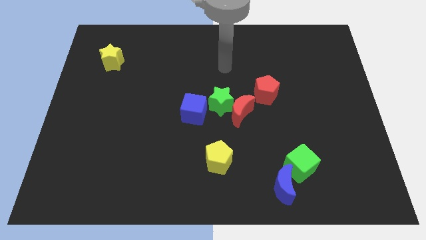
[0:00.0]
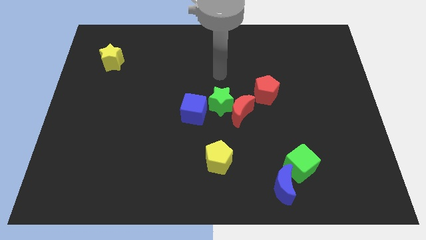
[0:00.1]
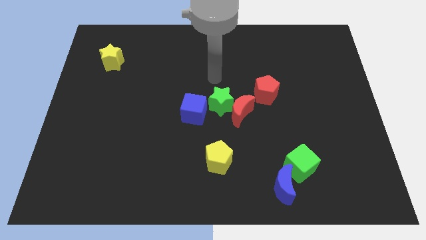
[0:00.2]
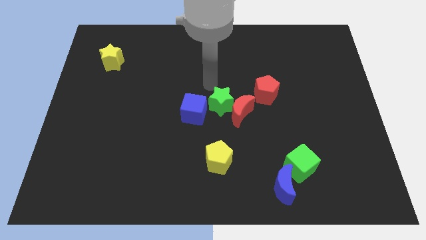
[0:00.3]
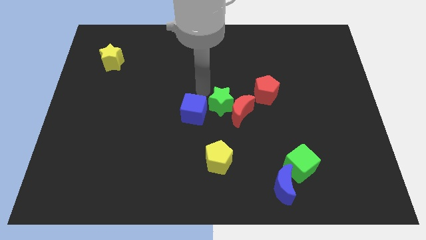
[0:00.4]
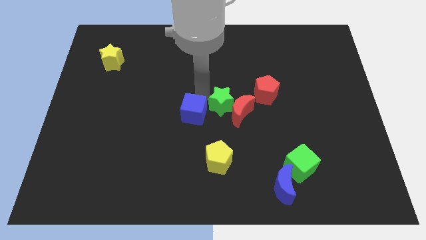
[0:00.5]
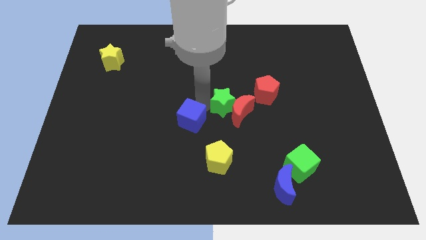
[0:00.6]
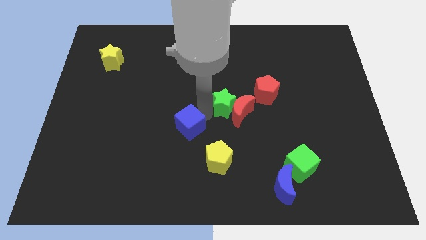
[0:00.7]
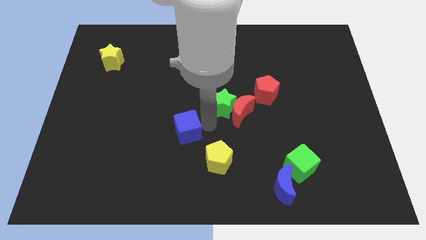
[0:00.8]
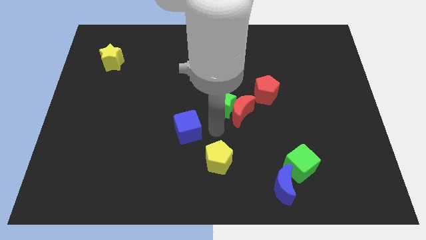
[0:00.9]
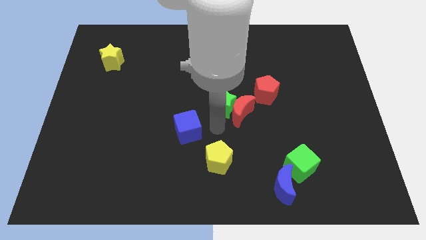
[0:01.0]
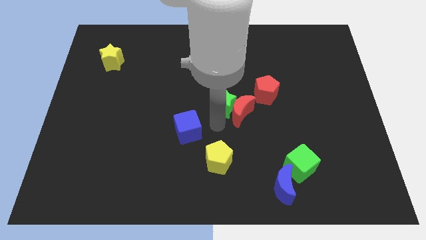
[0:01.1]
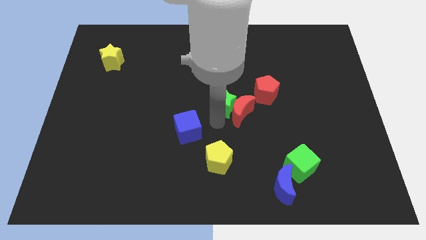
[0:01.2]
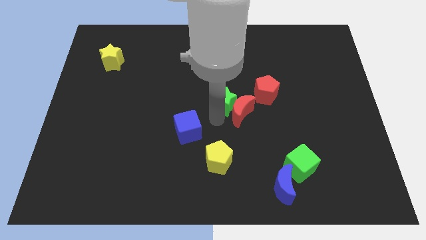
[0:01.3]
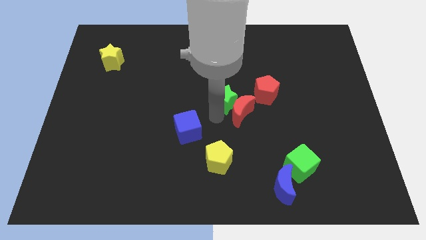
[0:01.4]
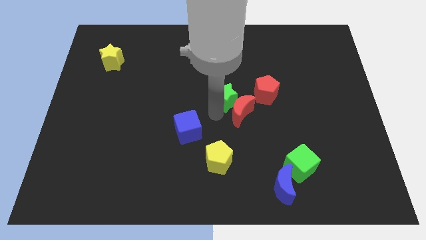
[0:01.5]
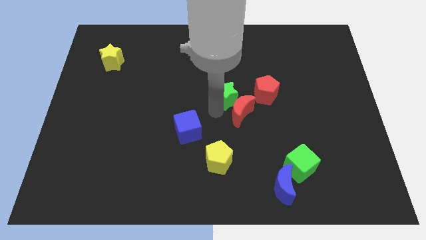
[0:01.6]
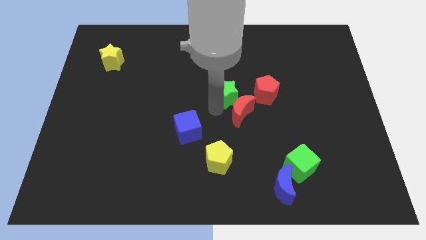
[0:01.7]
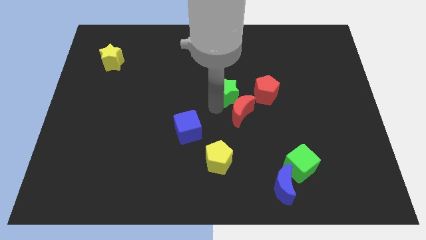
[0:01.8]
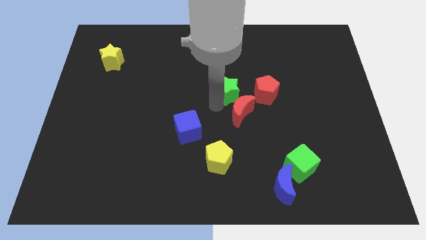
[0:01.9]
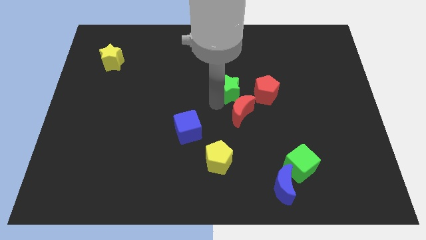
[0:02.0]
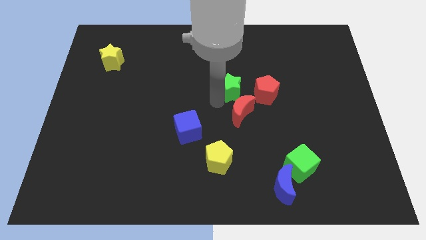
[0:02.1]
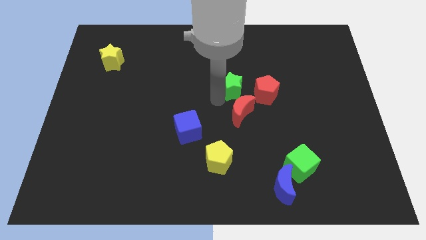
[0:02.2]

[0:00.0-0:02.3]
pull the green star apart from the red moon and blue cube

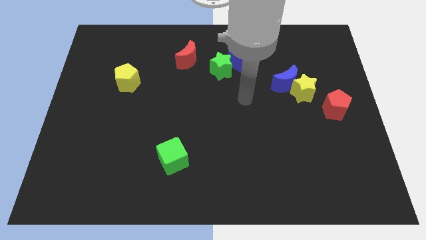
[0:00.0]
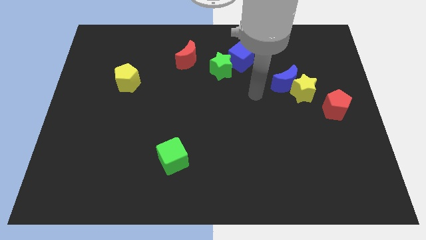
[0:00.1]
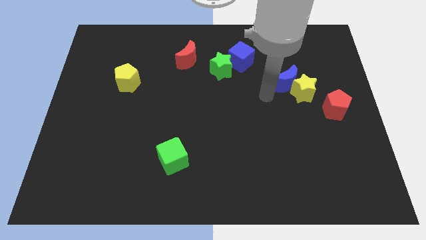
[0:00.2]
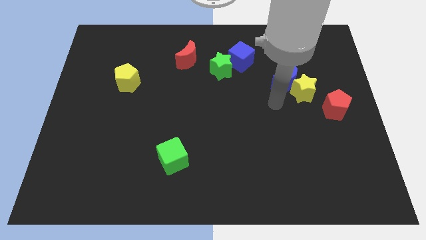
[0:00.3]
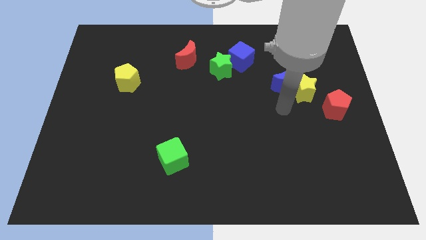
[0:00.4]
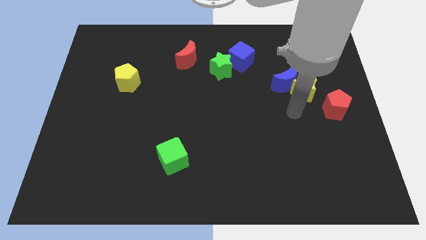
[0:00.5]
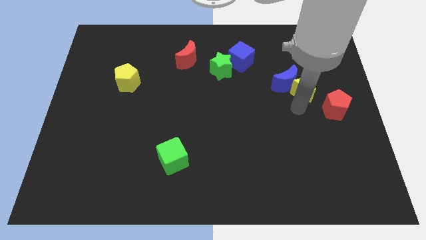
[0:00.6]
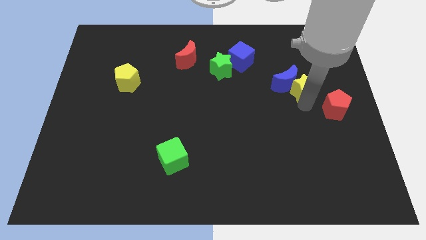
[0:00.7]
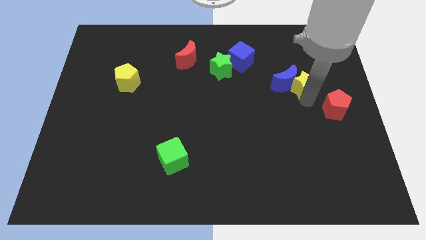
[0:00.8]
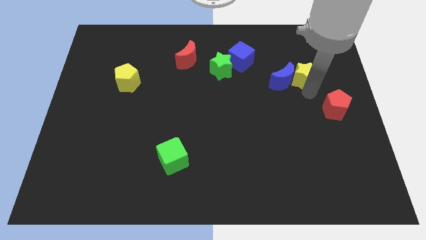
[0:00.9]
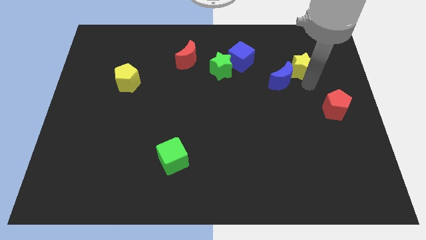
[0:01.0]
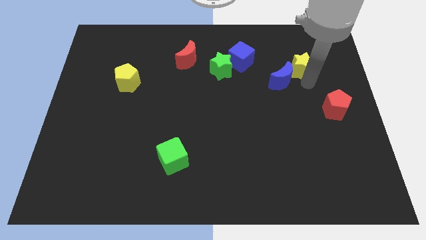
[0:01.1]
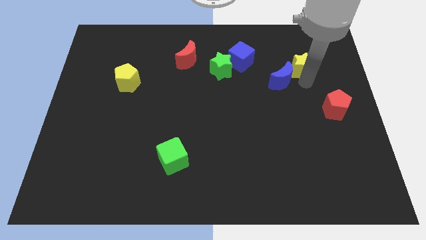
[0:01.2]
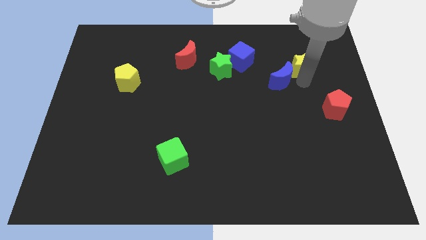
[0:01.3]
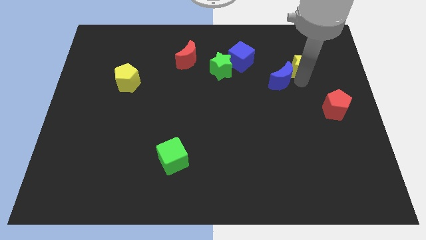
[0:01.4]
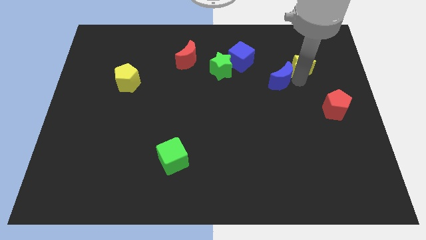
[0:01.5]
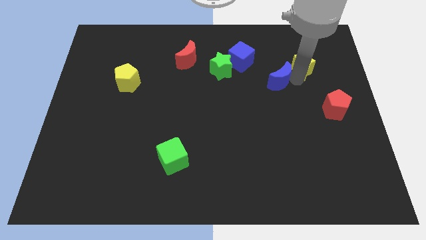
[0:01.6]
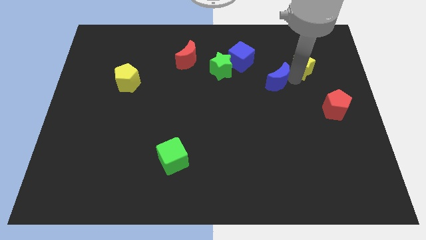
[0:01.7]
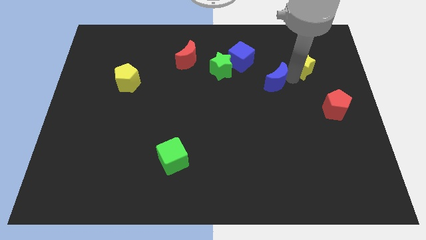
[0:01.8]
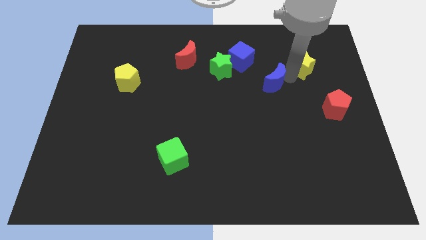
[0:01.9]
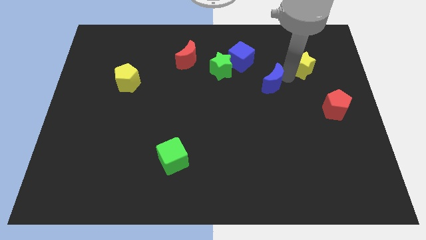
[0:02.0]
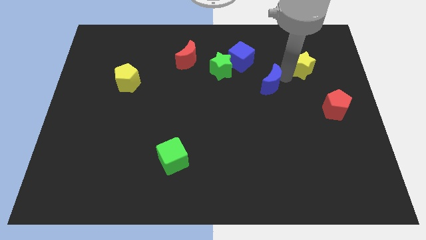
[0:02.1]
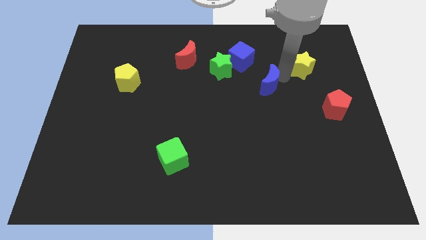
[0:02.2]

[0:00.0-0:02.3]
move the blue moon away from the yellow star

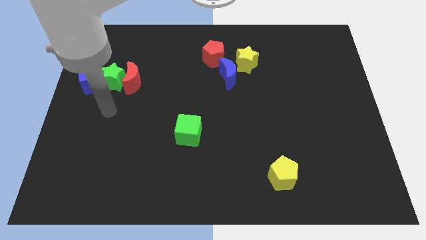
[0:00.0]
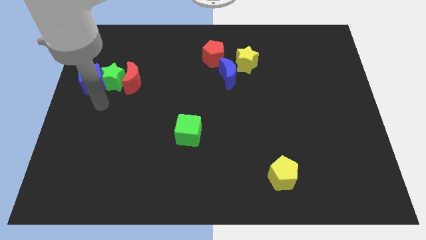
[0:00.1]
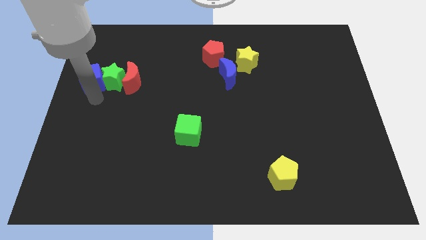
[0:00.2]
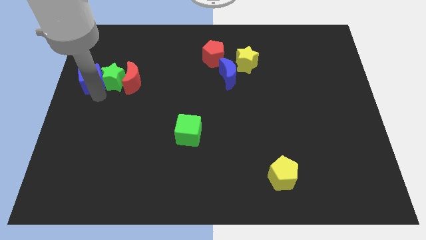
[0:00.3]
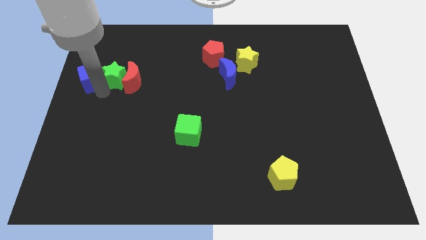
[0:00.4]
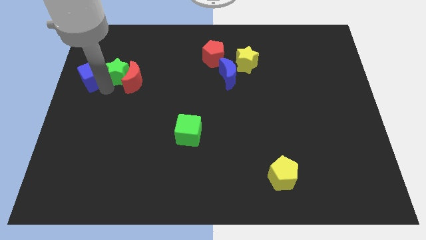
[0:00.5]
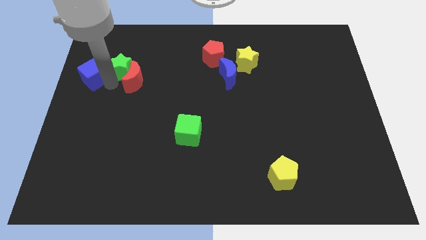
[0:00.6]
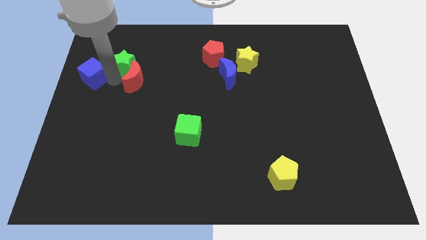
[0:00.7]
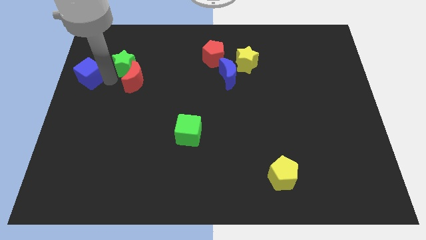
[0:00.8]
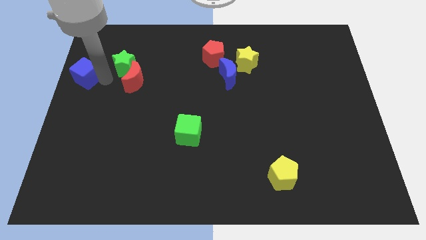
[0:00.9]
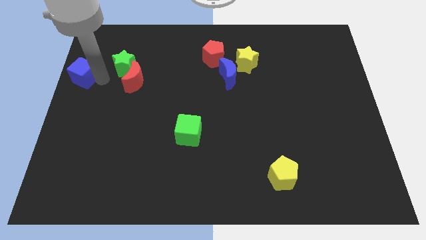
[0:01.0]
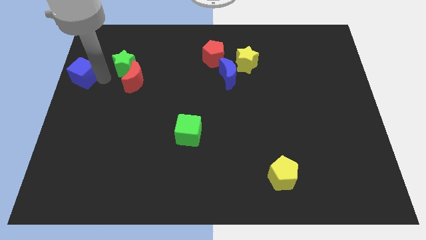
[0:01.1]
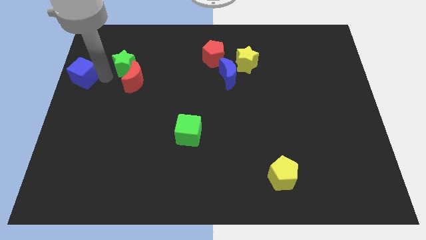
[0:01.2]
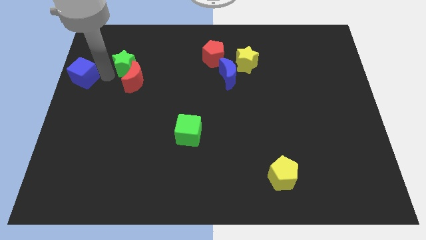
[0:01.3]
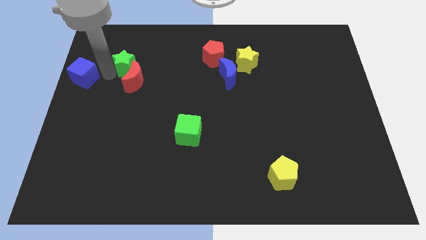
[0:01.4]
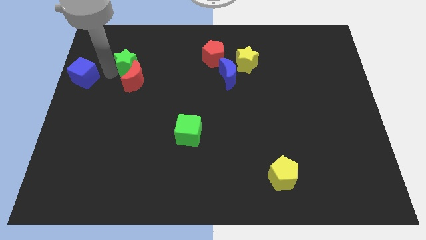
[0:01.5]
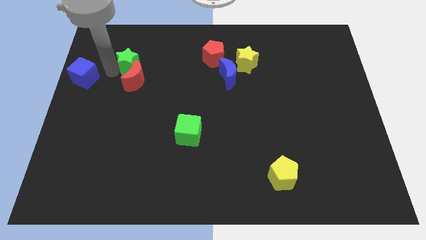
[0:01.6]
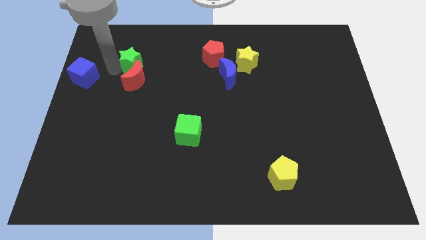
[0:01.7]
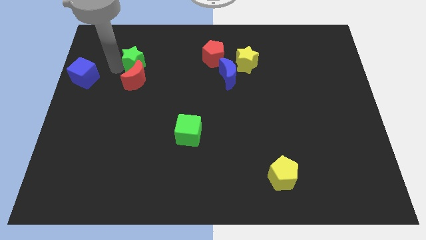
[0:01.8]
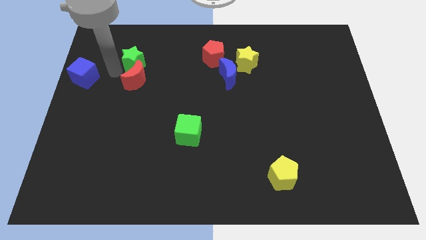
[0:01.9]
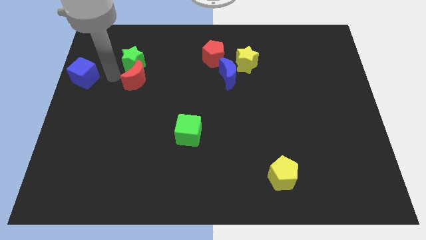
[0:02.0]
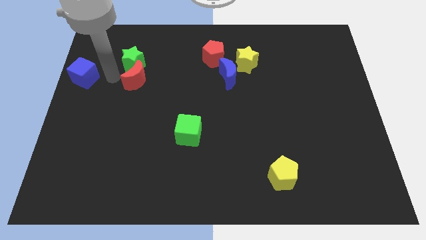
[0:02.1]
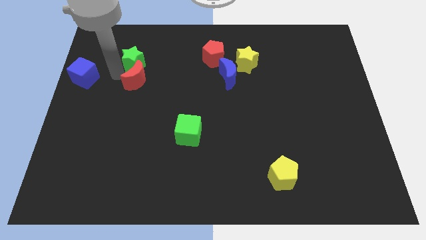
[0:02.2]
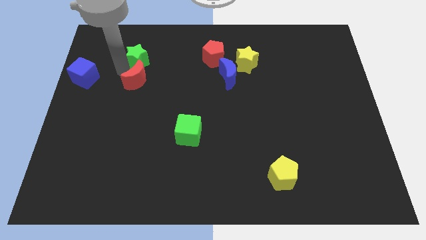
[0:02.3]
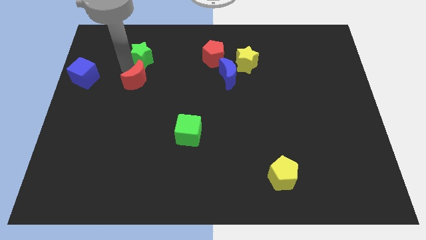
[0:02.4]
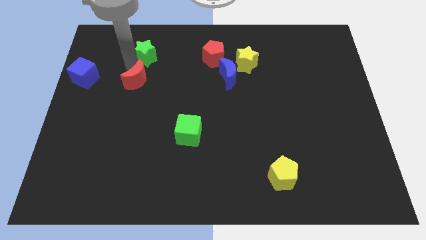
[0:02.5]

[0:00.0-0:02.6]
separate the green star from the red moon and blue cube

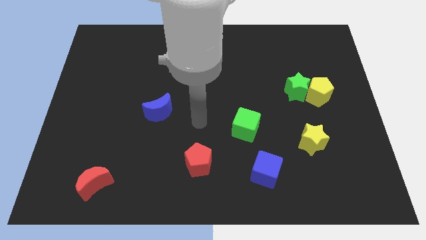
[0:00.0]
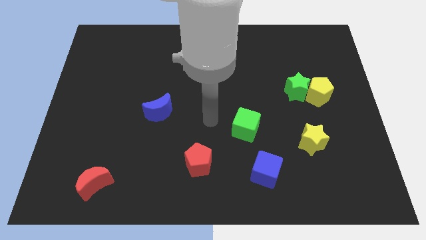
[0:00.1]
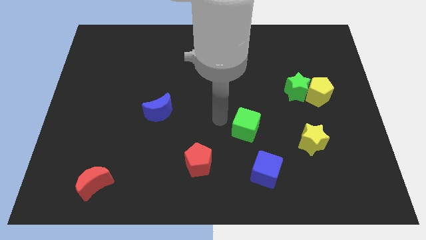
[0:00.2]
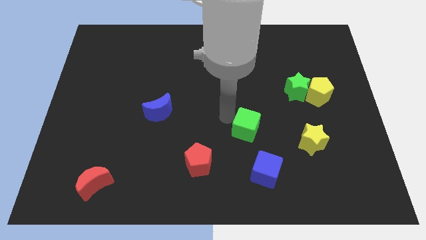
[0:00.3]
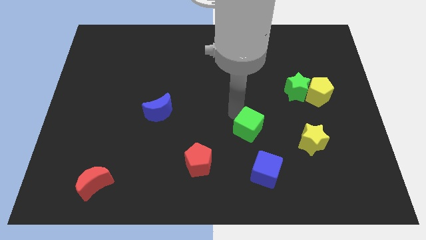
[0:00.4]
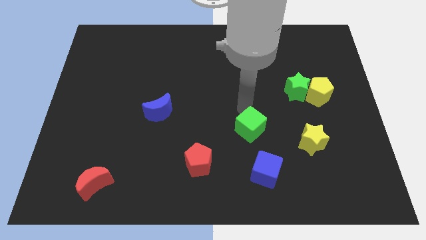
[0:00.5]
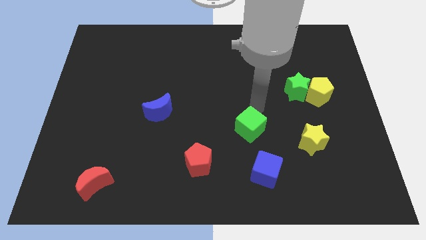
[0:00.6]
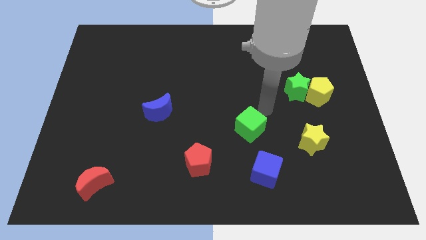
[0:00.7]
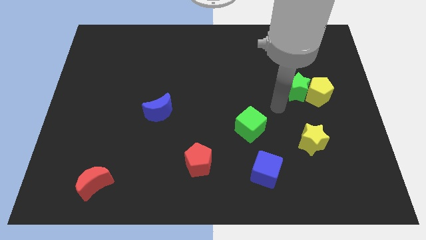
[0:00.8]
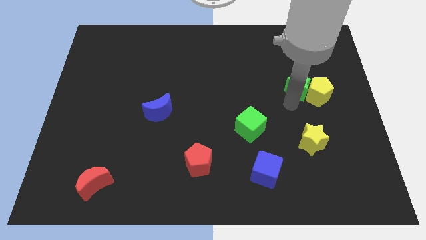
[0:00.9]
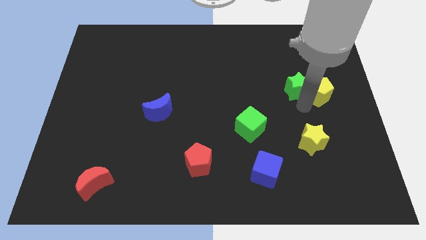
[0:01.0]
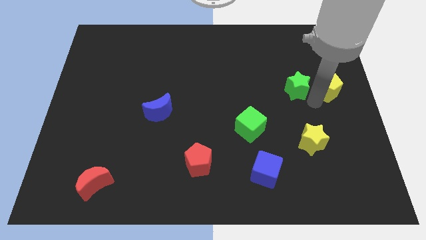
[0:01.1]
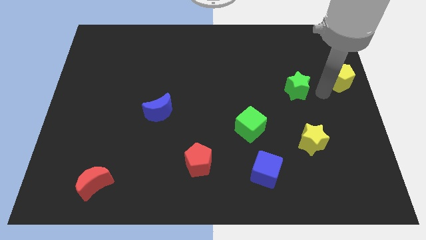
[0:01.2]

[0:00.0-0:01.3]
pull the green star apart from the yellow pentagon

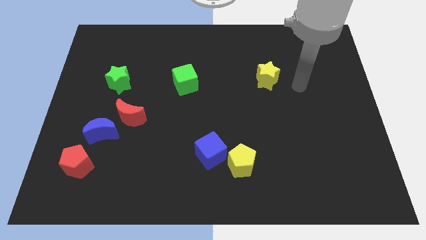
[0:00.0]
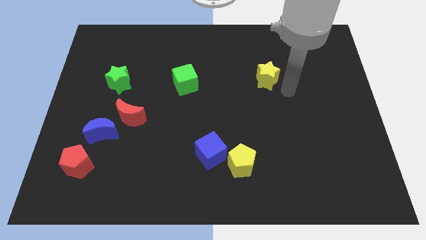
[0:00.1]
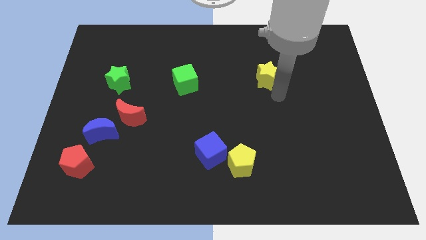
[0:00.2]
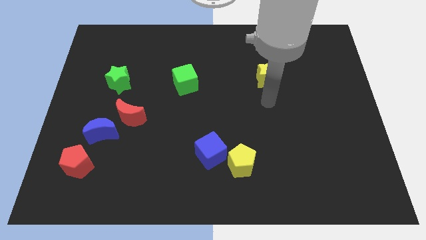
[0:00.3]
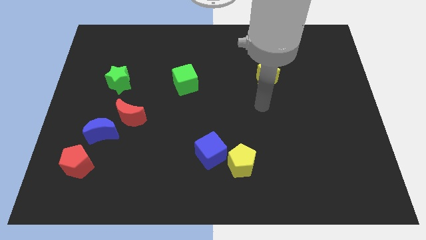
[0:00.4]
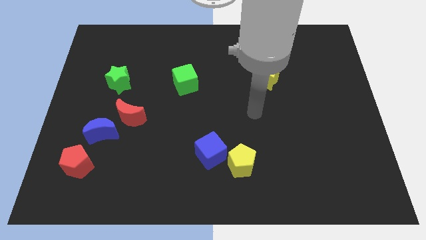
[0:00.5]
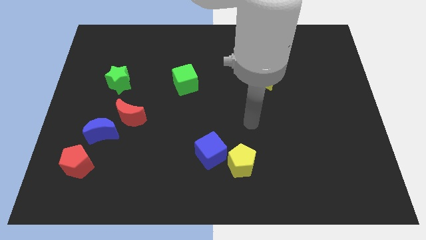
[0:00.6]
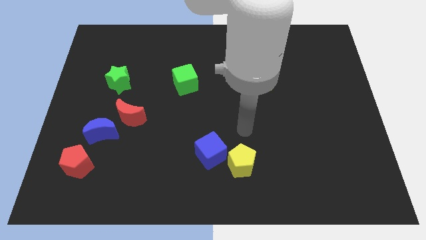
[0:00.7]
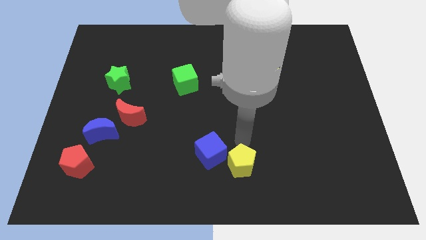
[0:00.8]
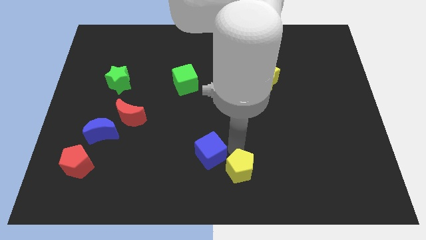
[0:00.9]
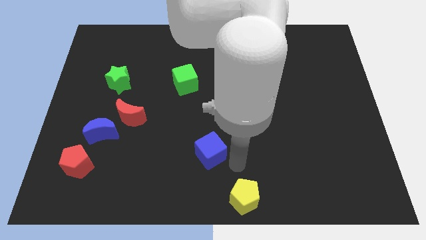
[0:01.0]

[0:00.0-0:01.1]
move the blue cube away from the yellow pentagon
